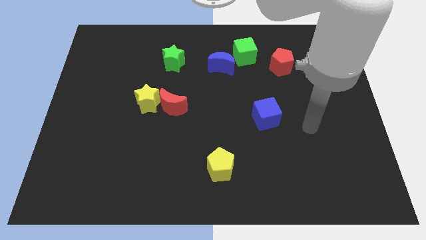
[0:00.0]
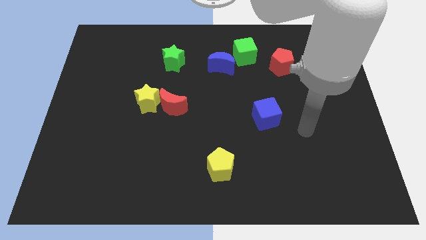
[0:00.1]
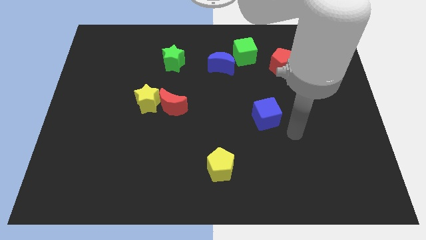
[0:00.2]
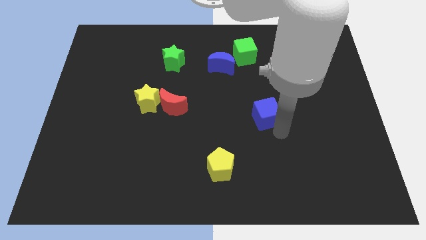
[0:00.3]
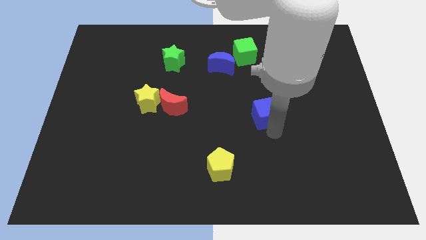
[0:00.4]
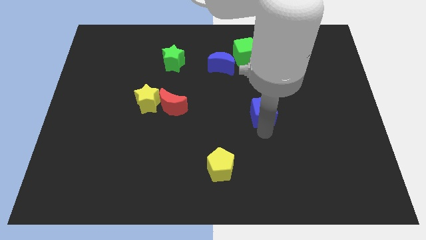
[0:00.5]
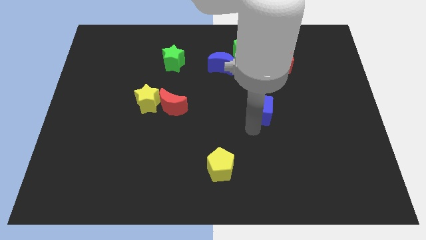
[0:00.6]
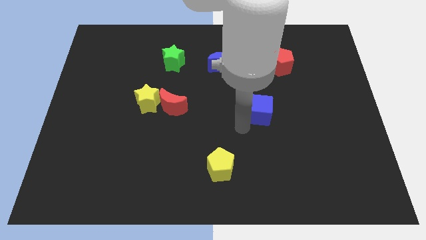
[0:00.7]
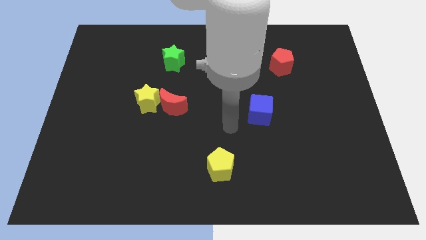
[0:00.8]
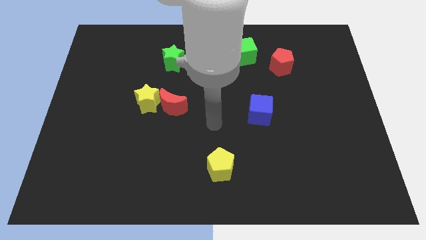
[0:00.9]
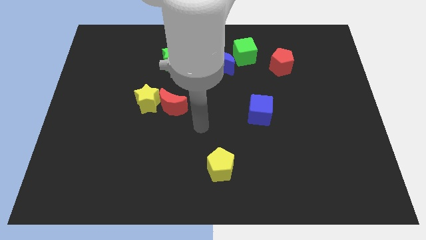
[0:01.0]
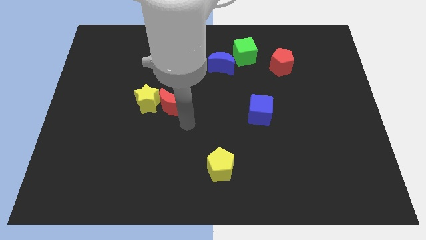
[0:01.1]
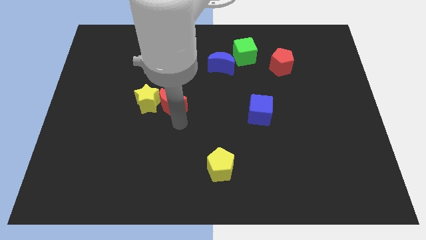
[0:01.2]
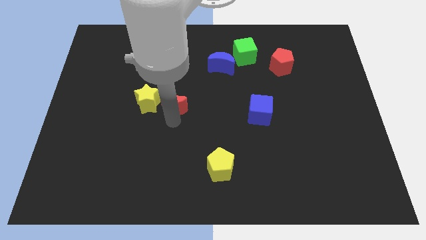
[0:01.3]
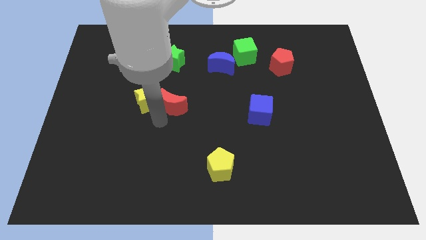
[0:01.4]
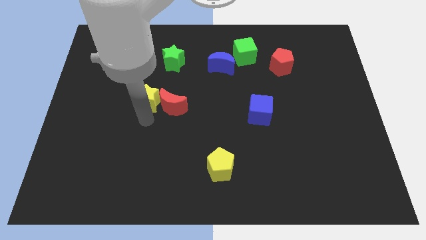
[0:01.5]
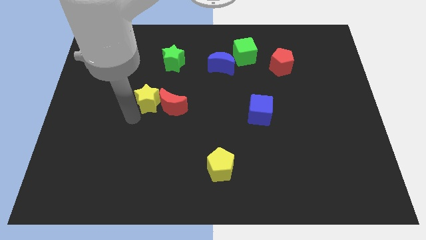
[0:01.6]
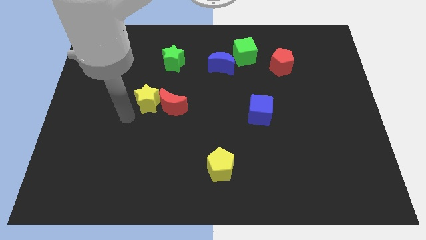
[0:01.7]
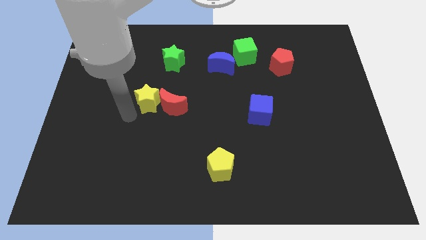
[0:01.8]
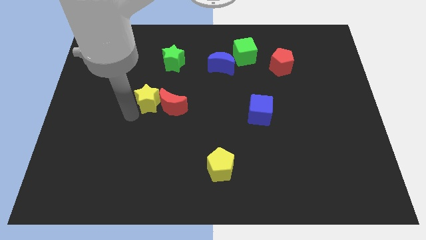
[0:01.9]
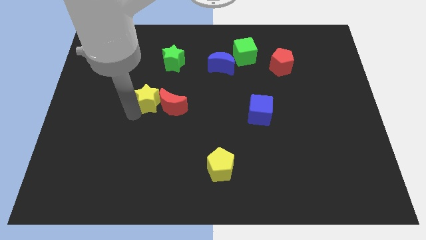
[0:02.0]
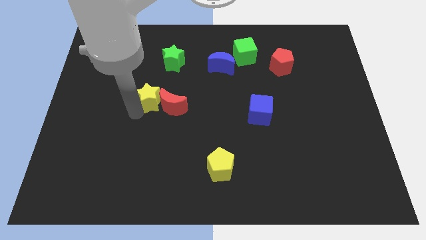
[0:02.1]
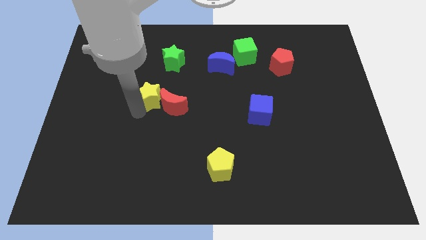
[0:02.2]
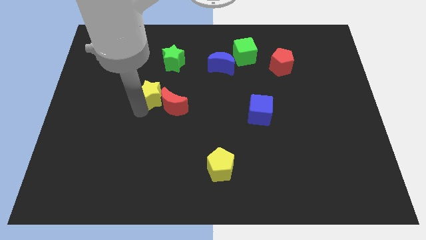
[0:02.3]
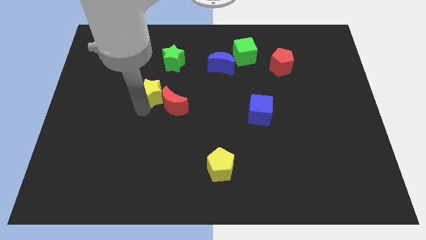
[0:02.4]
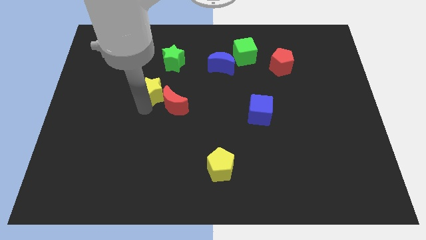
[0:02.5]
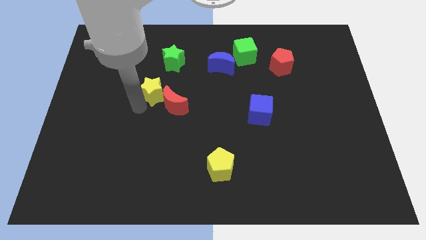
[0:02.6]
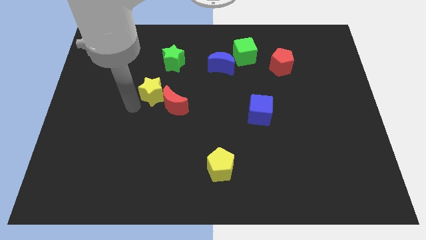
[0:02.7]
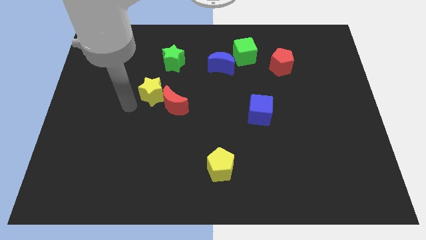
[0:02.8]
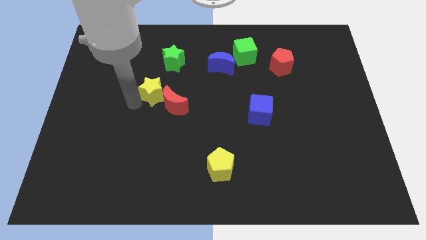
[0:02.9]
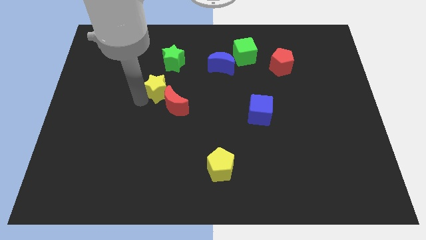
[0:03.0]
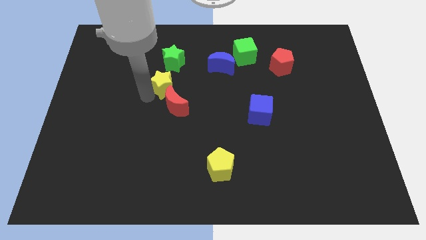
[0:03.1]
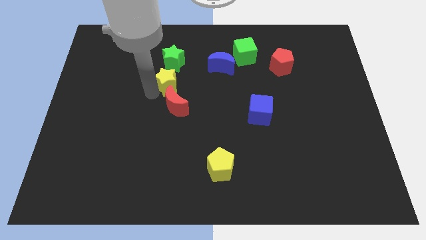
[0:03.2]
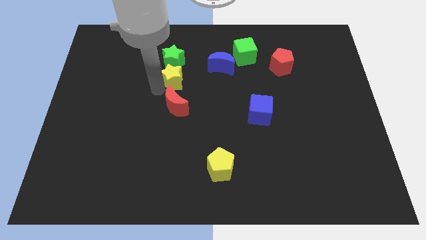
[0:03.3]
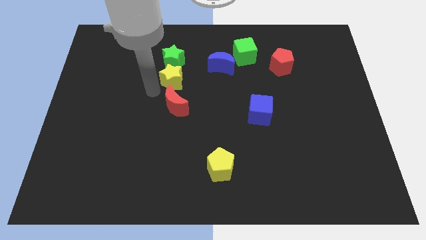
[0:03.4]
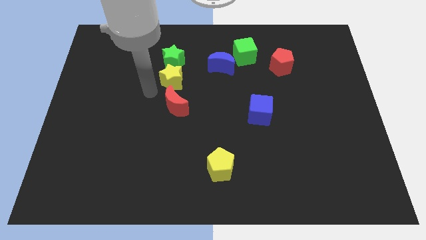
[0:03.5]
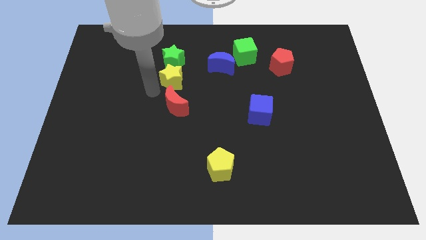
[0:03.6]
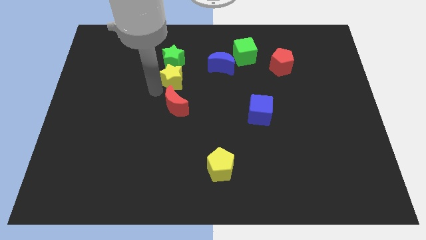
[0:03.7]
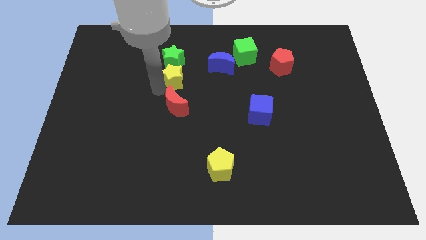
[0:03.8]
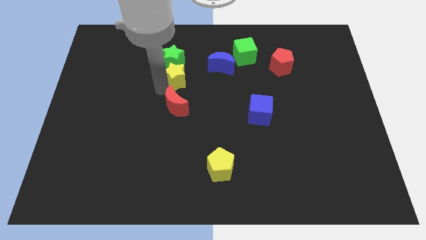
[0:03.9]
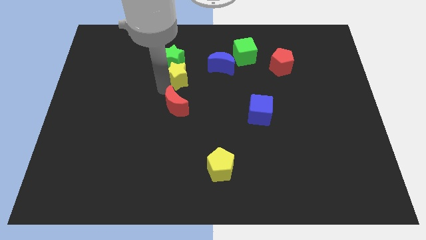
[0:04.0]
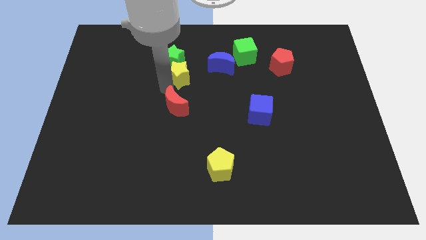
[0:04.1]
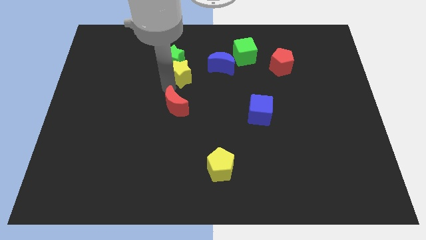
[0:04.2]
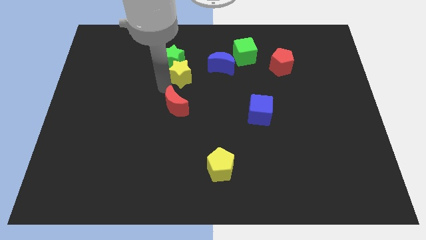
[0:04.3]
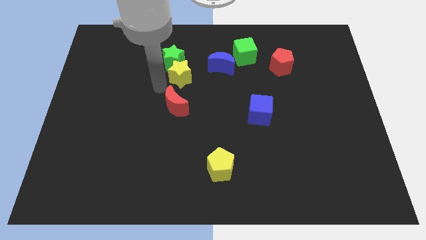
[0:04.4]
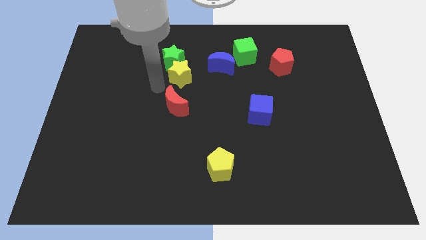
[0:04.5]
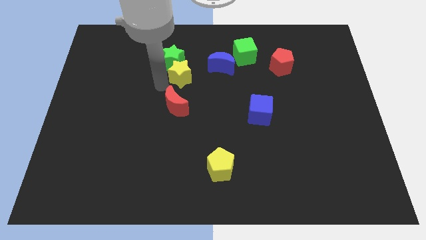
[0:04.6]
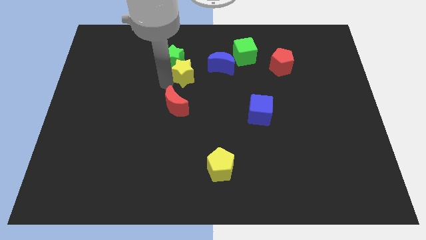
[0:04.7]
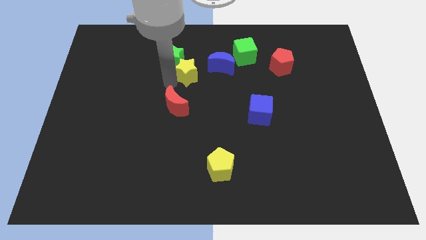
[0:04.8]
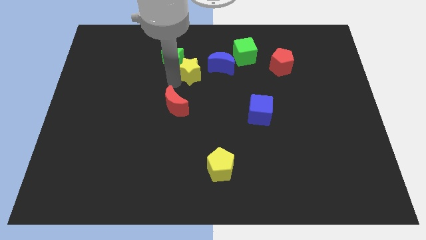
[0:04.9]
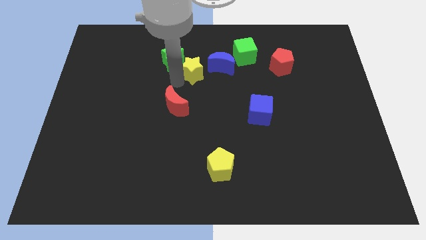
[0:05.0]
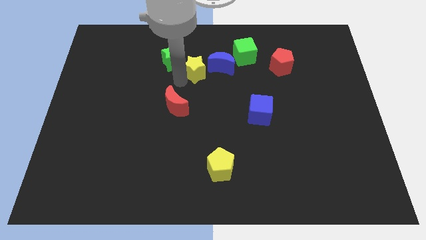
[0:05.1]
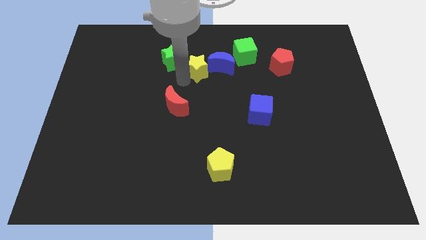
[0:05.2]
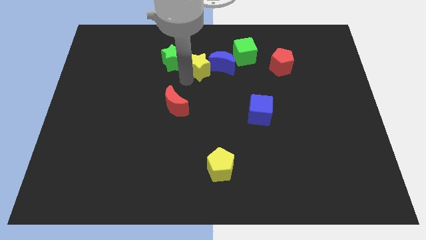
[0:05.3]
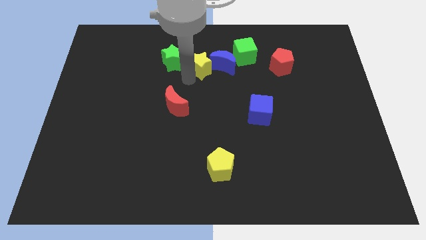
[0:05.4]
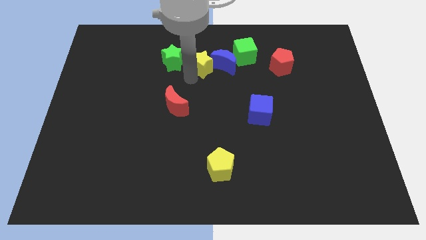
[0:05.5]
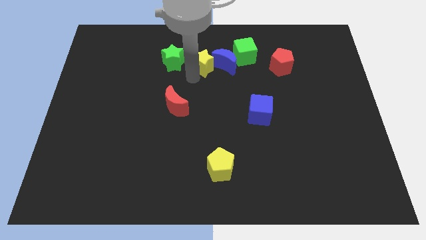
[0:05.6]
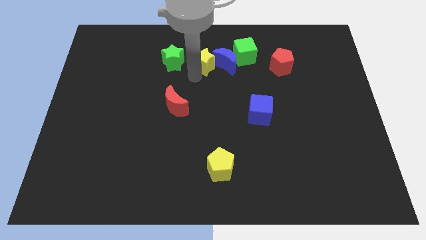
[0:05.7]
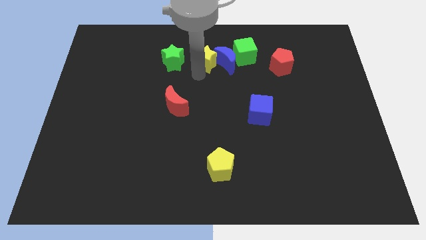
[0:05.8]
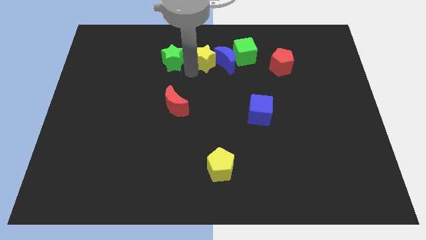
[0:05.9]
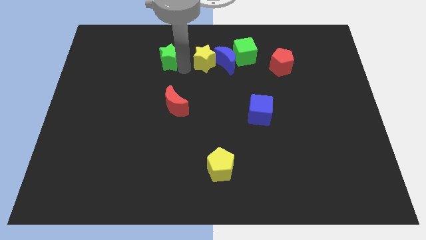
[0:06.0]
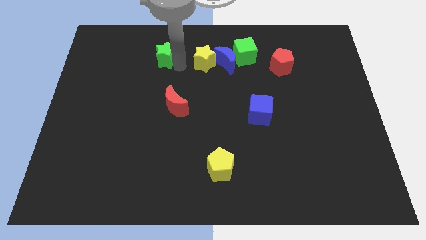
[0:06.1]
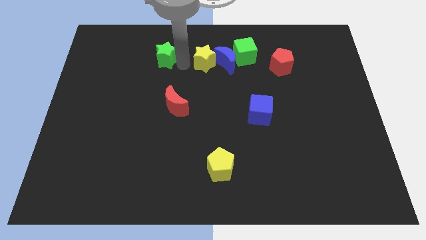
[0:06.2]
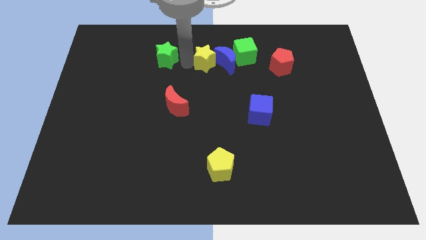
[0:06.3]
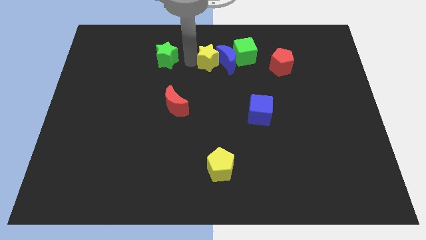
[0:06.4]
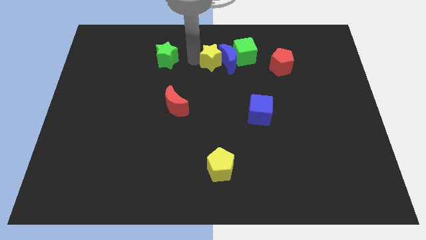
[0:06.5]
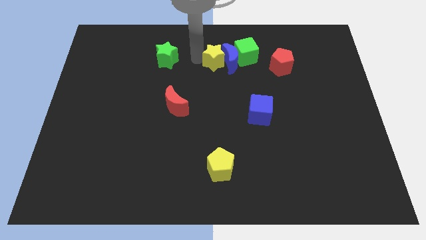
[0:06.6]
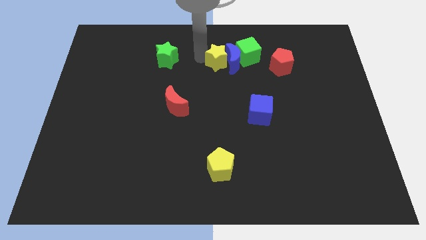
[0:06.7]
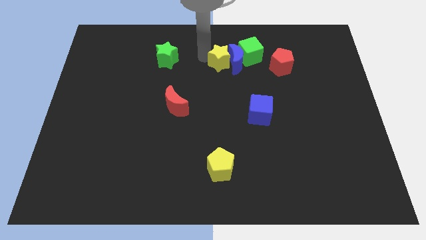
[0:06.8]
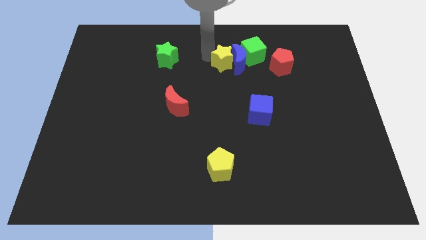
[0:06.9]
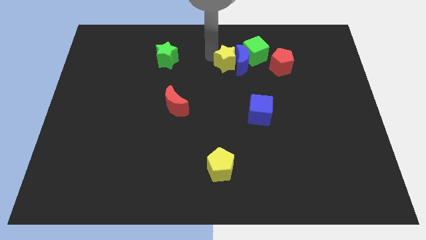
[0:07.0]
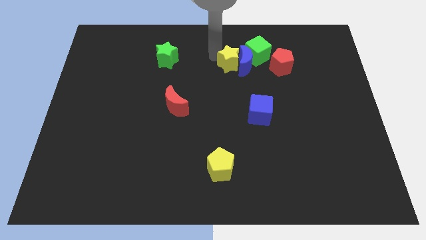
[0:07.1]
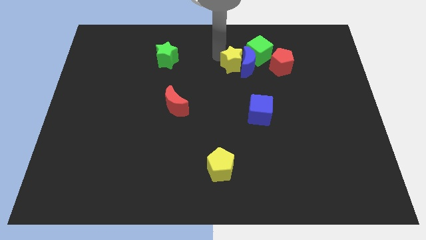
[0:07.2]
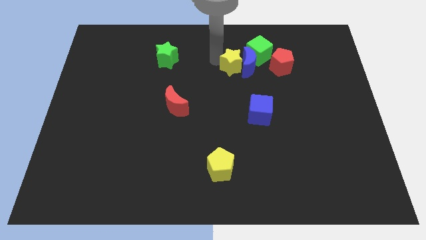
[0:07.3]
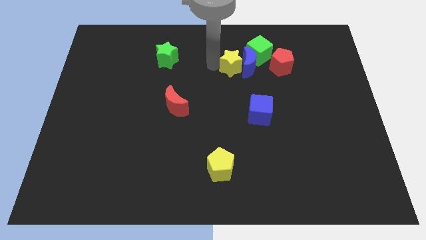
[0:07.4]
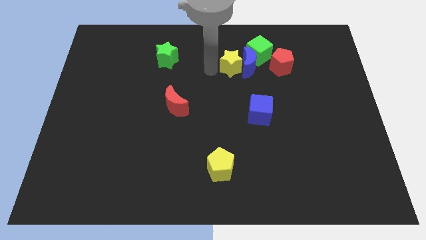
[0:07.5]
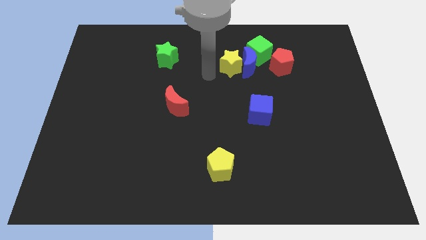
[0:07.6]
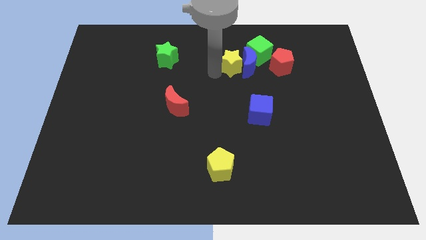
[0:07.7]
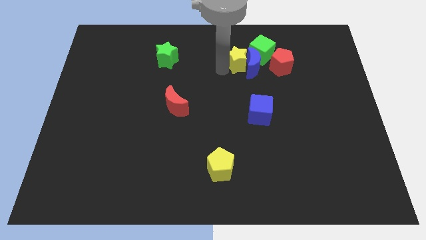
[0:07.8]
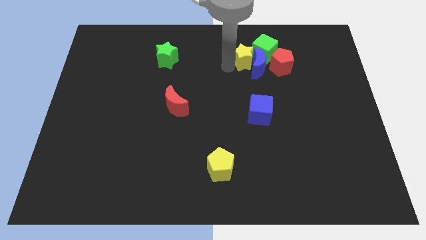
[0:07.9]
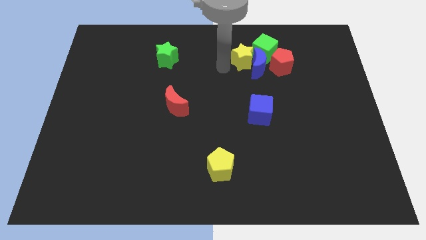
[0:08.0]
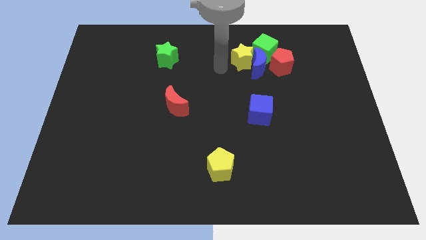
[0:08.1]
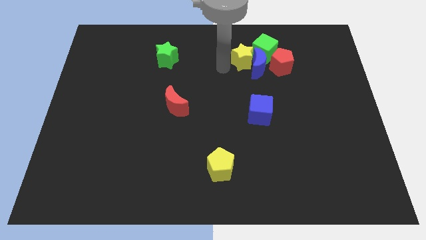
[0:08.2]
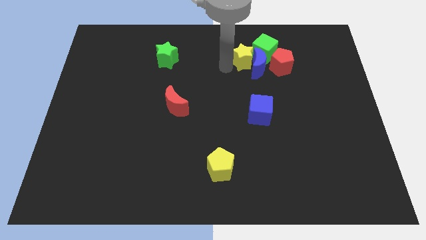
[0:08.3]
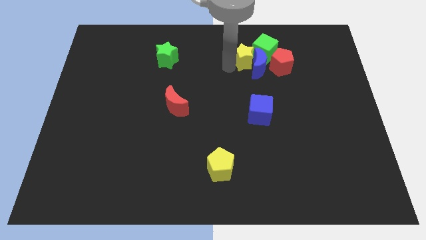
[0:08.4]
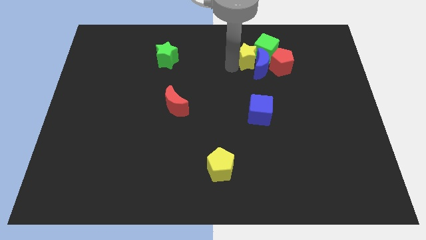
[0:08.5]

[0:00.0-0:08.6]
slide the yellow star next to the green cube
